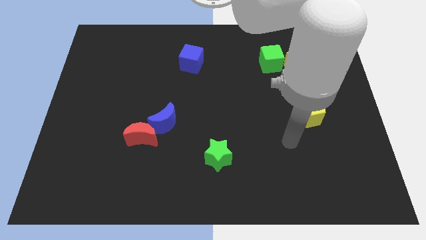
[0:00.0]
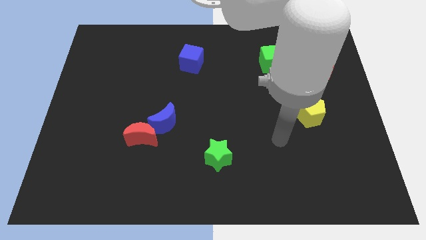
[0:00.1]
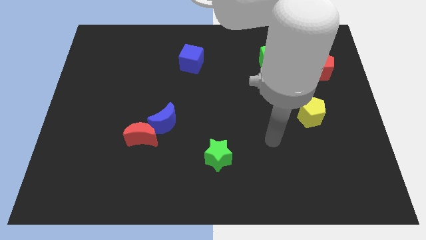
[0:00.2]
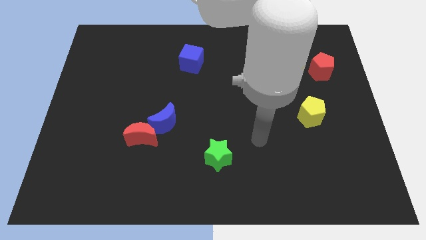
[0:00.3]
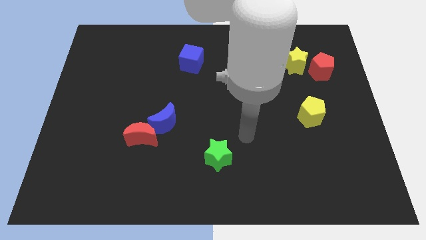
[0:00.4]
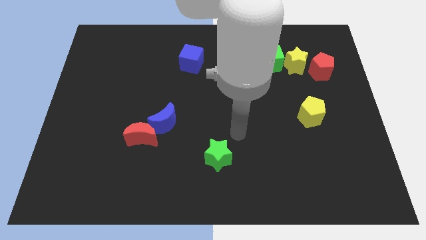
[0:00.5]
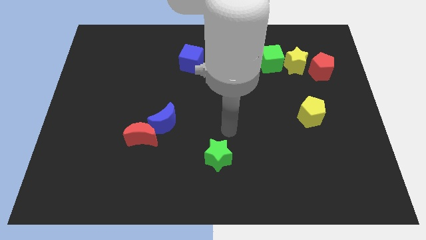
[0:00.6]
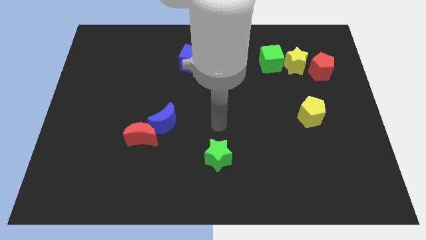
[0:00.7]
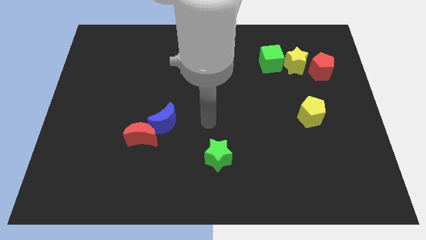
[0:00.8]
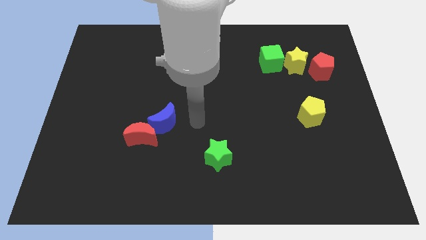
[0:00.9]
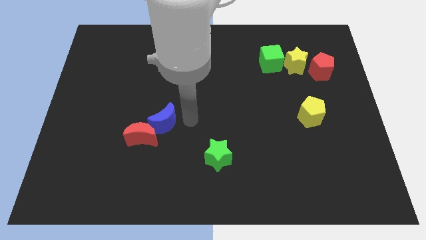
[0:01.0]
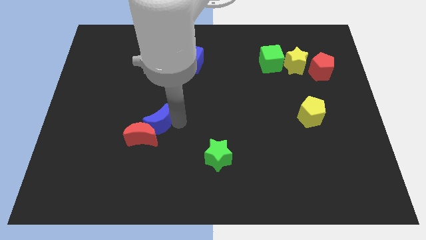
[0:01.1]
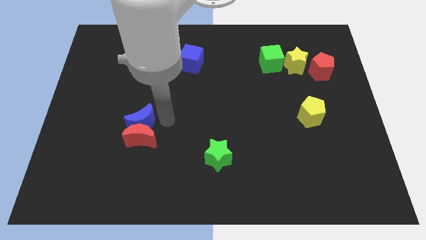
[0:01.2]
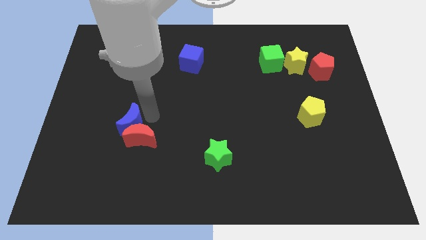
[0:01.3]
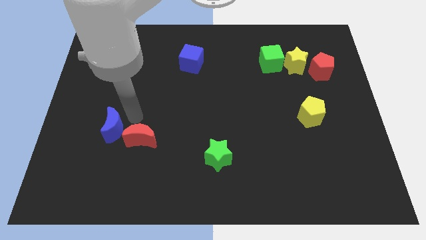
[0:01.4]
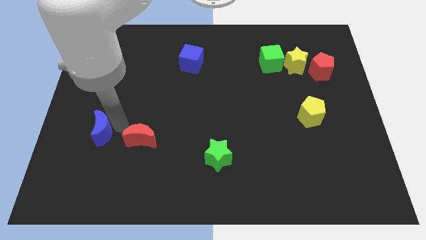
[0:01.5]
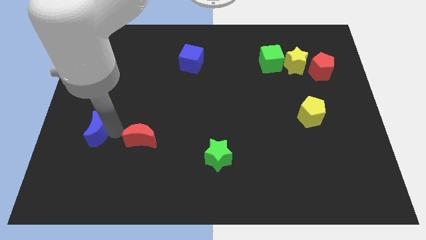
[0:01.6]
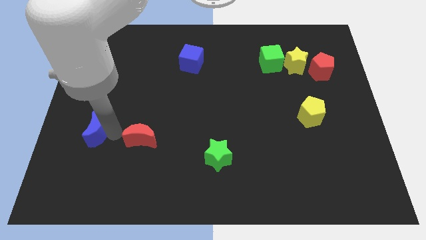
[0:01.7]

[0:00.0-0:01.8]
pull the red moon apart from the blue moon

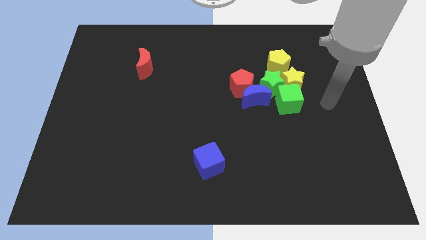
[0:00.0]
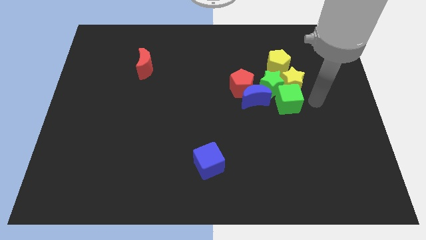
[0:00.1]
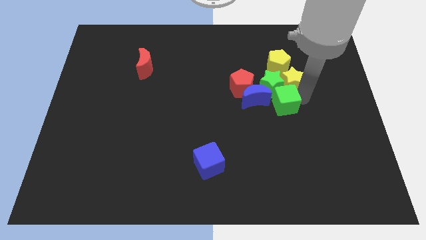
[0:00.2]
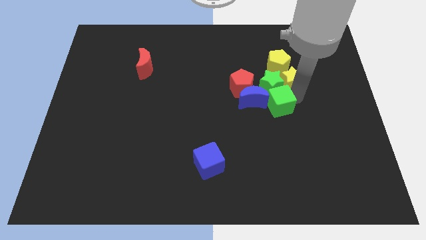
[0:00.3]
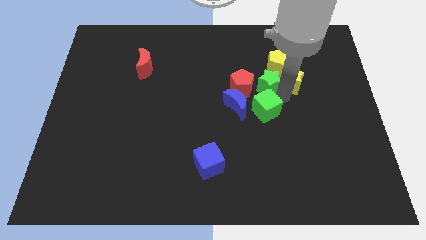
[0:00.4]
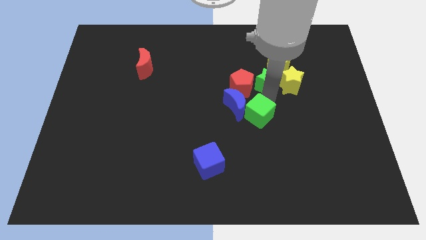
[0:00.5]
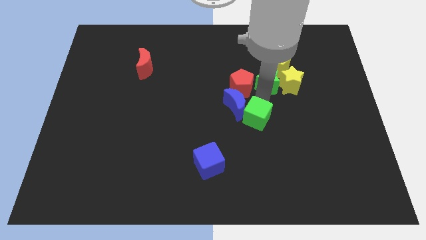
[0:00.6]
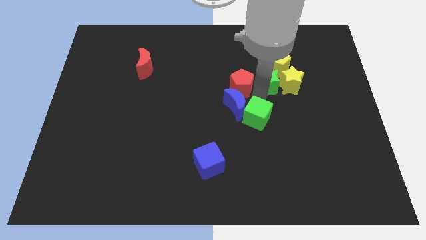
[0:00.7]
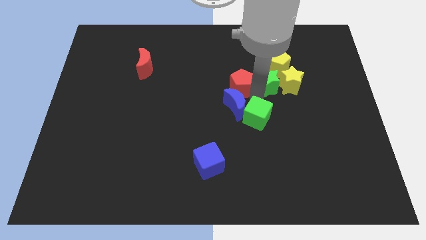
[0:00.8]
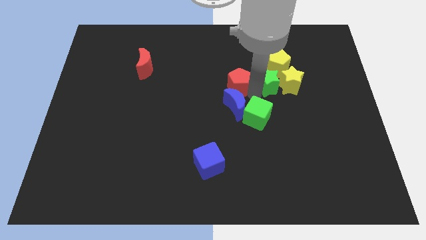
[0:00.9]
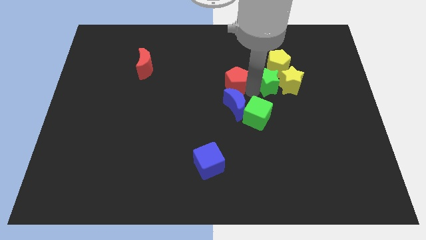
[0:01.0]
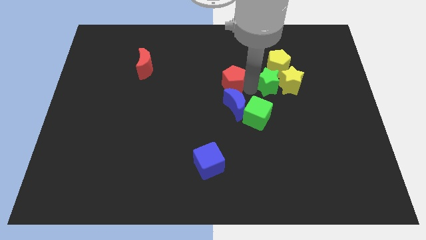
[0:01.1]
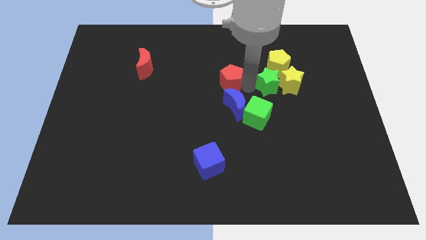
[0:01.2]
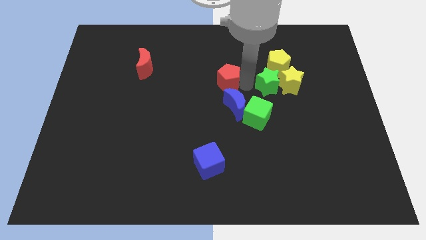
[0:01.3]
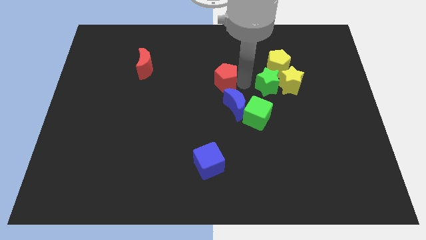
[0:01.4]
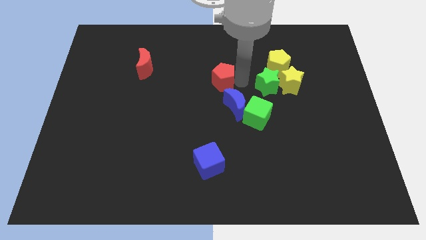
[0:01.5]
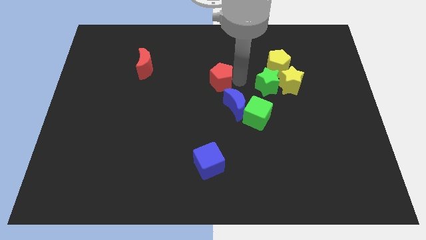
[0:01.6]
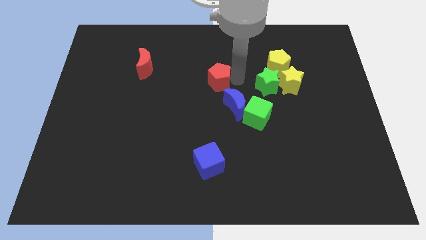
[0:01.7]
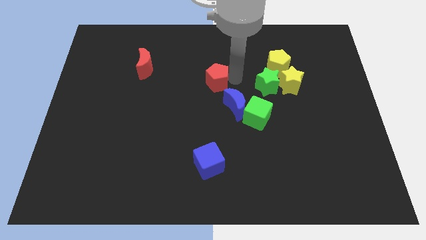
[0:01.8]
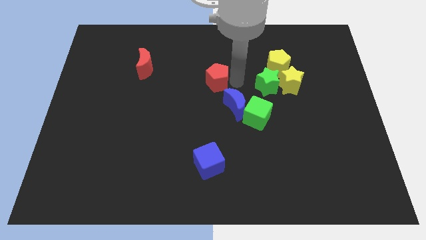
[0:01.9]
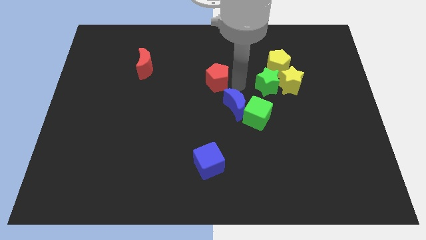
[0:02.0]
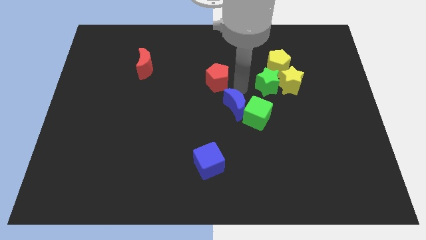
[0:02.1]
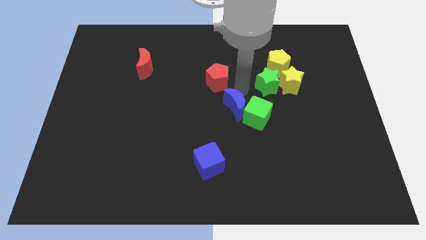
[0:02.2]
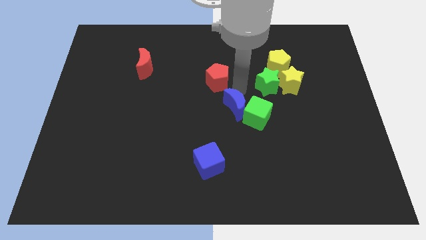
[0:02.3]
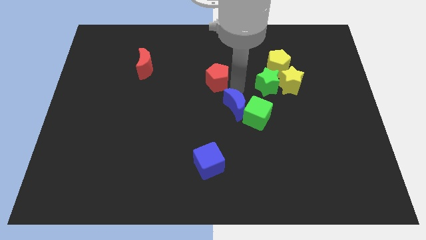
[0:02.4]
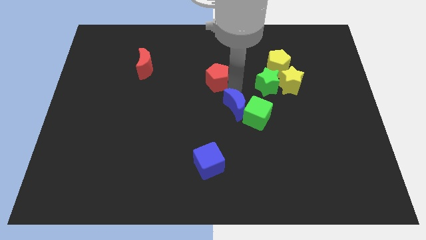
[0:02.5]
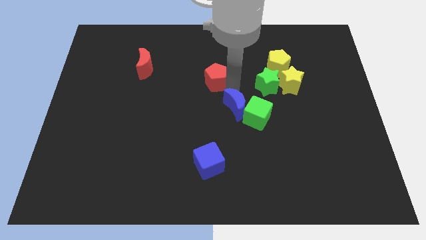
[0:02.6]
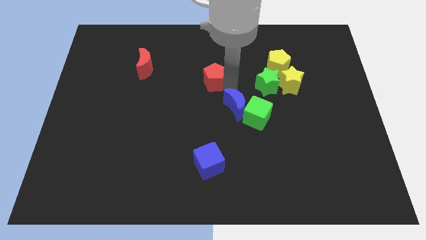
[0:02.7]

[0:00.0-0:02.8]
separate the red pentagon from the blue moon and green star

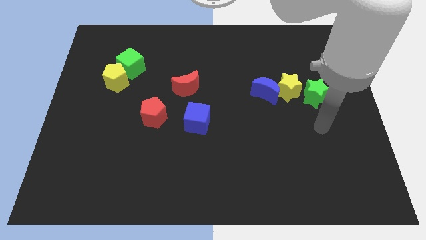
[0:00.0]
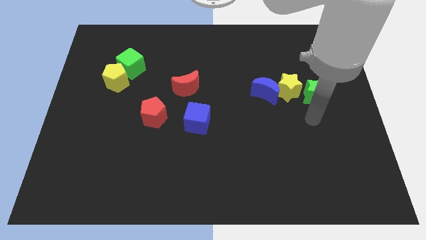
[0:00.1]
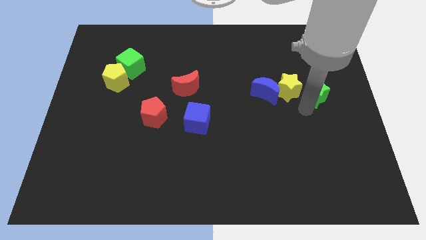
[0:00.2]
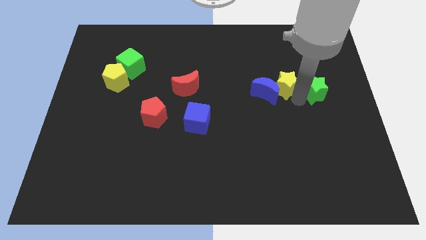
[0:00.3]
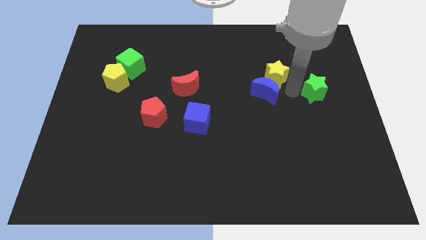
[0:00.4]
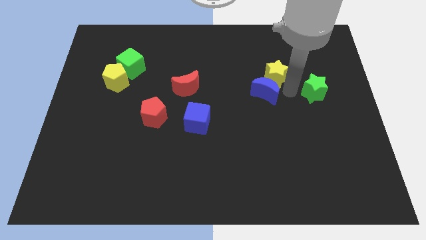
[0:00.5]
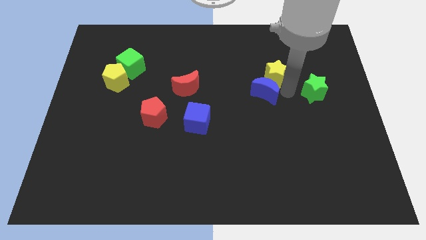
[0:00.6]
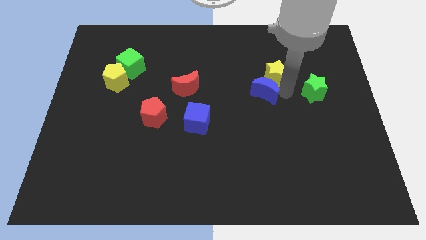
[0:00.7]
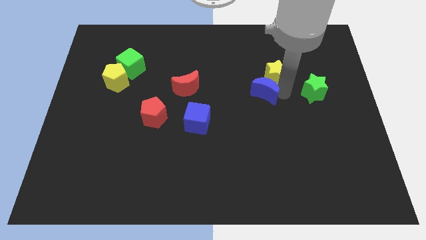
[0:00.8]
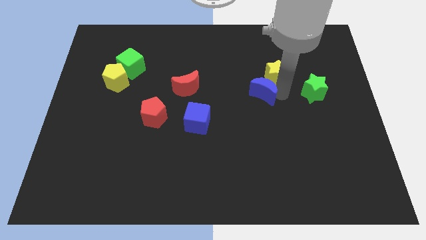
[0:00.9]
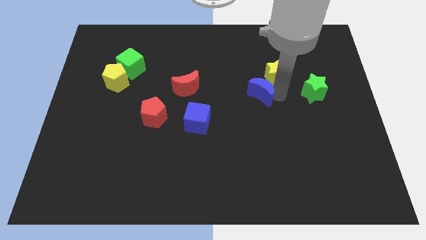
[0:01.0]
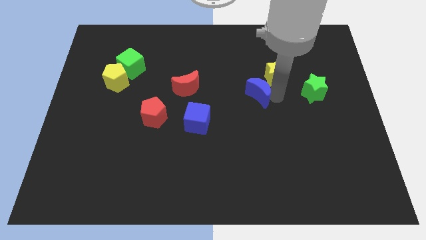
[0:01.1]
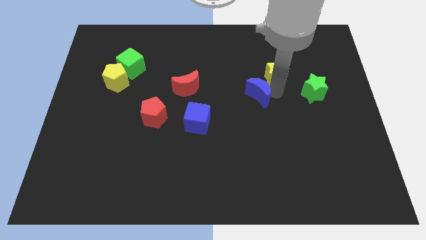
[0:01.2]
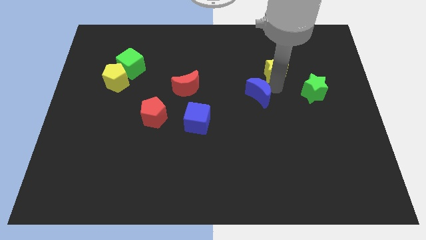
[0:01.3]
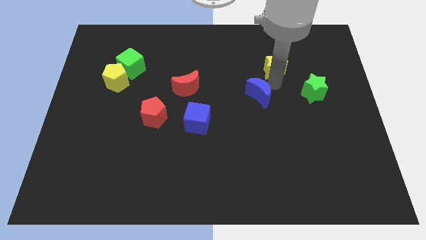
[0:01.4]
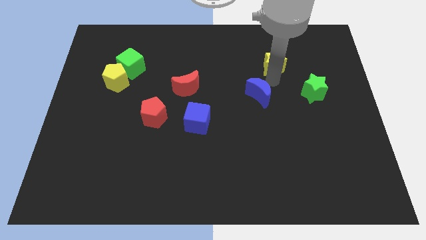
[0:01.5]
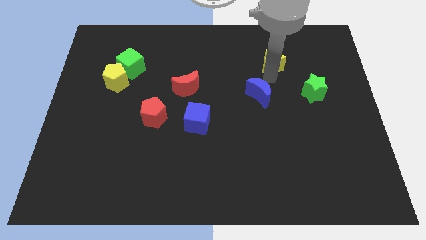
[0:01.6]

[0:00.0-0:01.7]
move the blue moon away from the yellow star

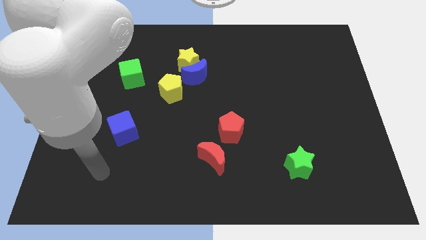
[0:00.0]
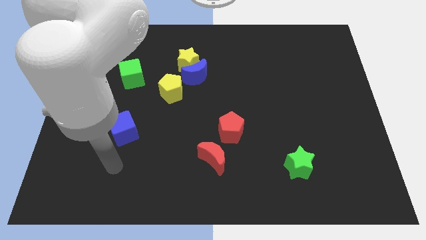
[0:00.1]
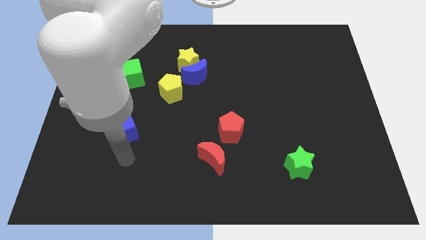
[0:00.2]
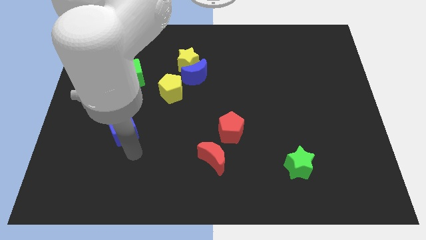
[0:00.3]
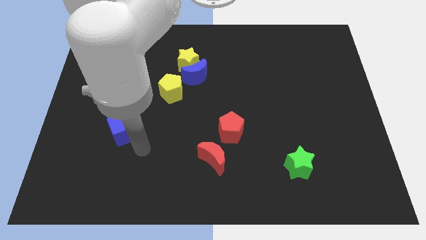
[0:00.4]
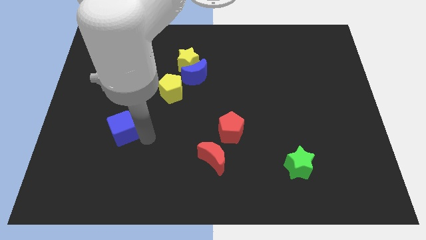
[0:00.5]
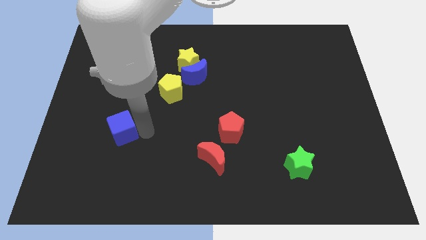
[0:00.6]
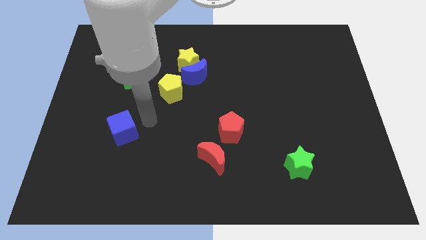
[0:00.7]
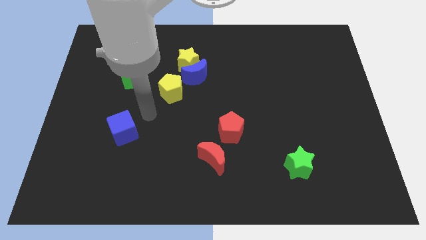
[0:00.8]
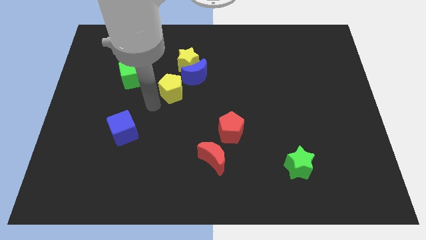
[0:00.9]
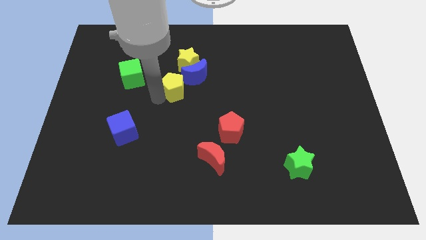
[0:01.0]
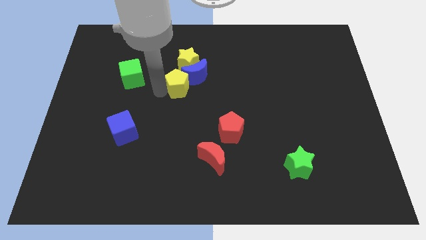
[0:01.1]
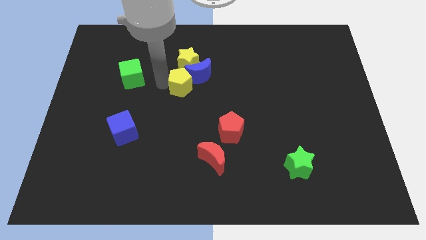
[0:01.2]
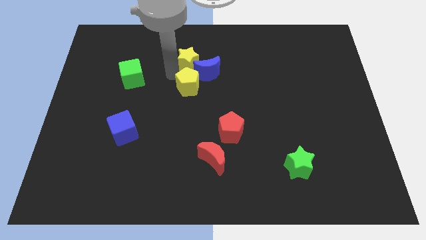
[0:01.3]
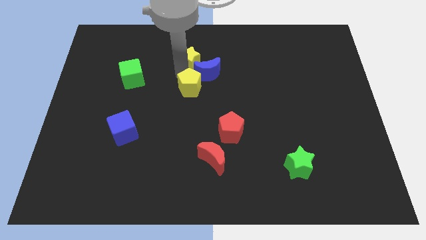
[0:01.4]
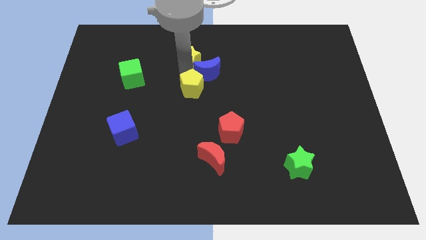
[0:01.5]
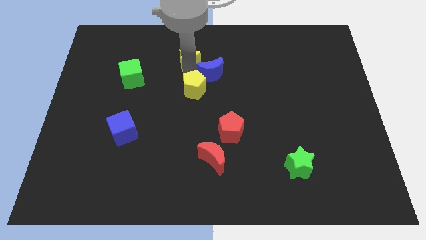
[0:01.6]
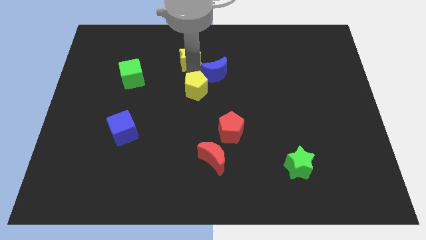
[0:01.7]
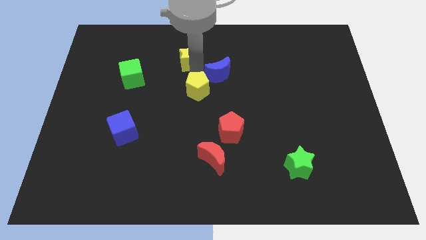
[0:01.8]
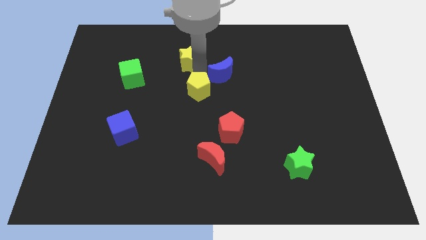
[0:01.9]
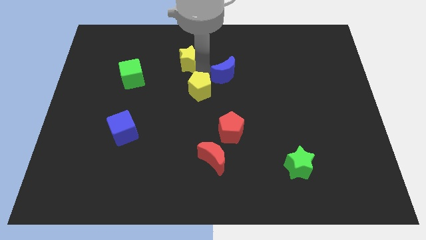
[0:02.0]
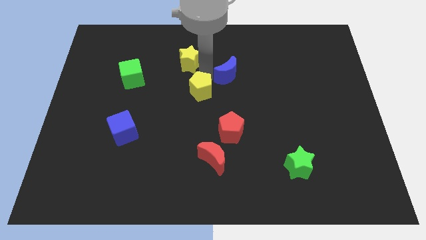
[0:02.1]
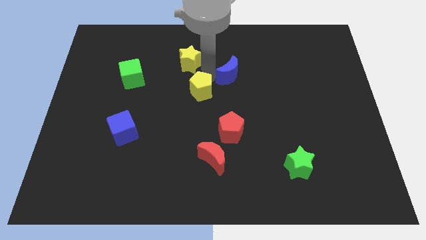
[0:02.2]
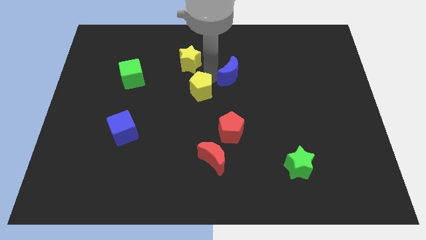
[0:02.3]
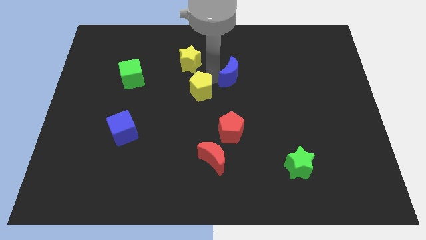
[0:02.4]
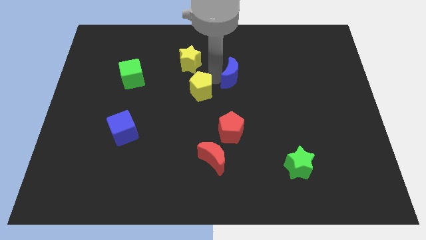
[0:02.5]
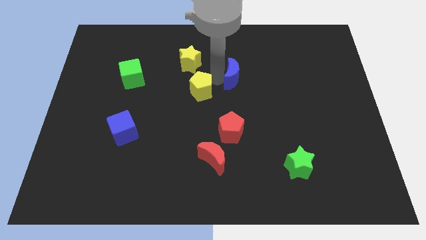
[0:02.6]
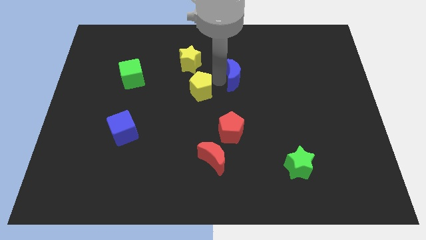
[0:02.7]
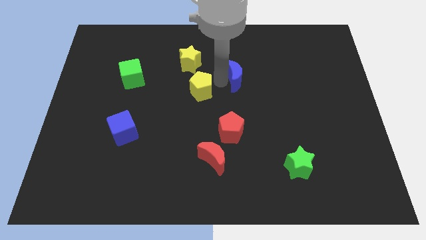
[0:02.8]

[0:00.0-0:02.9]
move the blue moon away from the yellow star and yellow pentagon
